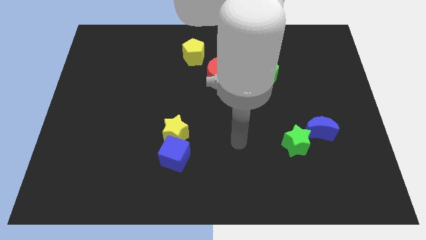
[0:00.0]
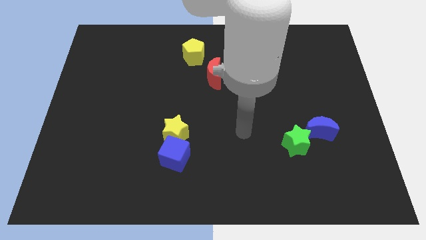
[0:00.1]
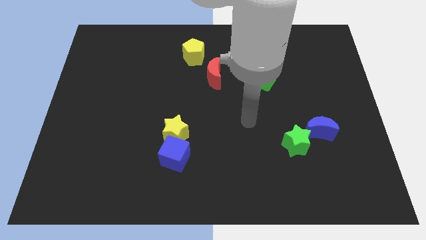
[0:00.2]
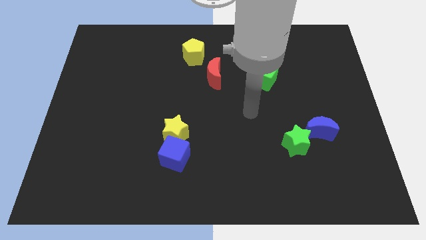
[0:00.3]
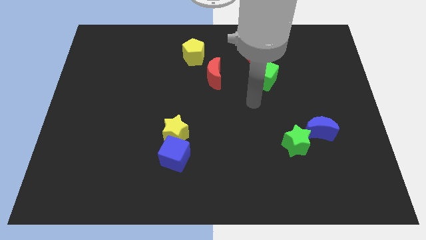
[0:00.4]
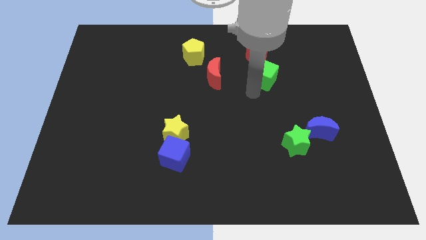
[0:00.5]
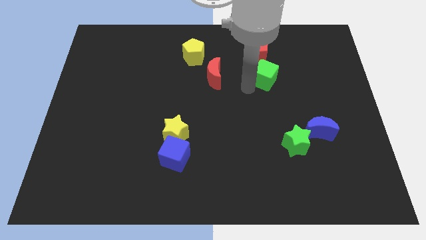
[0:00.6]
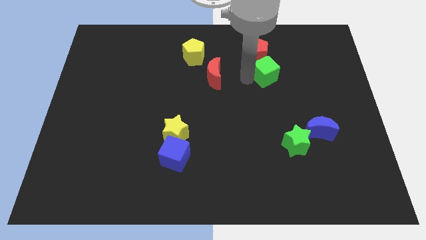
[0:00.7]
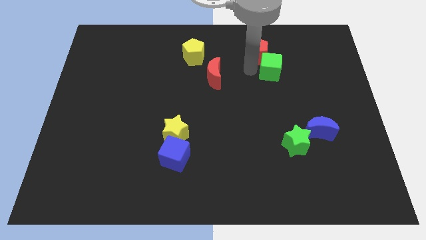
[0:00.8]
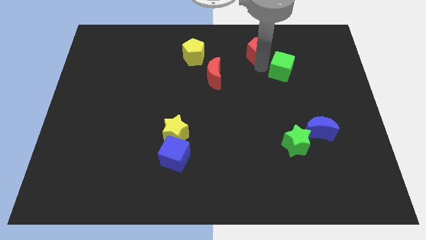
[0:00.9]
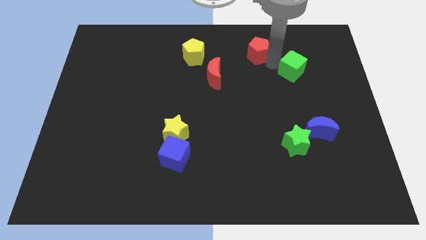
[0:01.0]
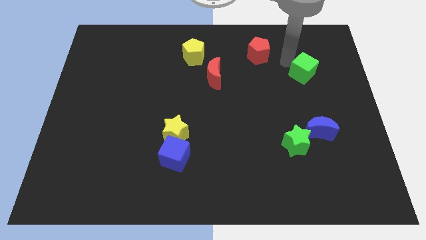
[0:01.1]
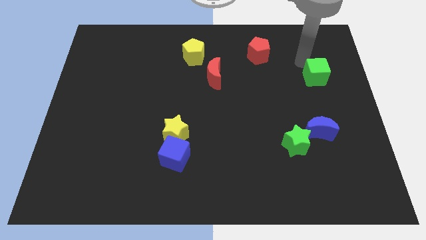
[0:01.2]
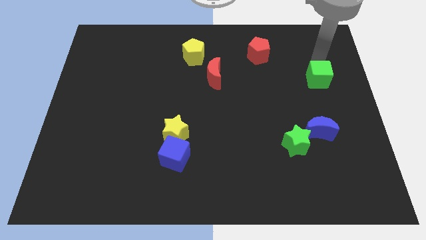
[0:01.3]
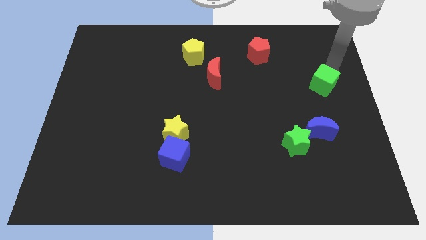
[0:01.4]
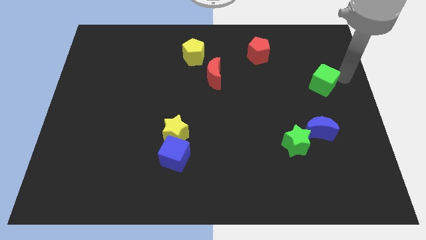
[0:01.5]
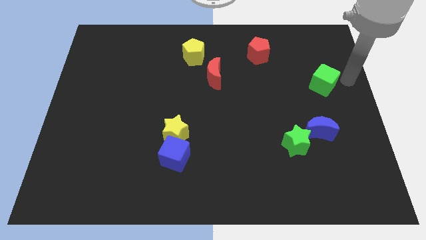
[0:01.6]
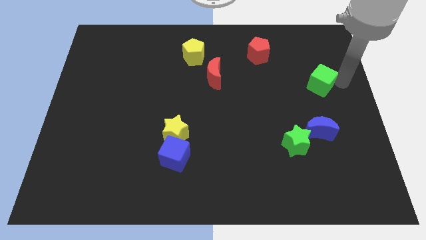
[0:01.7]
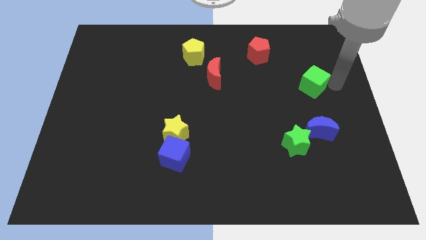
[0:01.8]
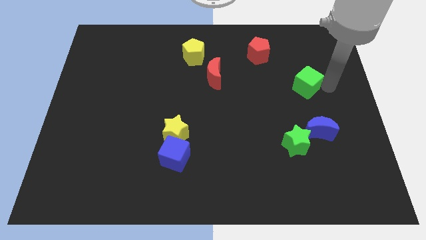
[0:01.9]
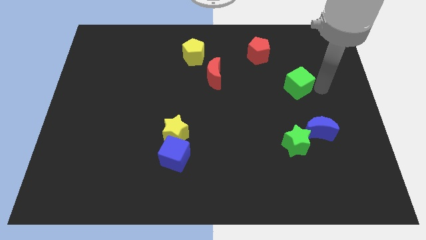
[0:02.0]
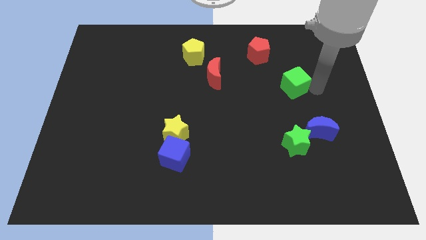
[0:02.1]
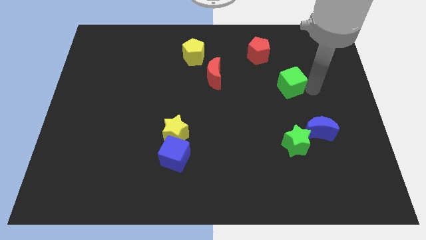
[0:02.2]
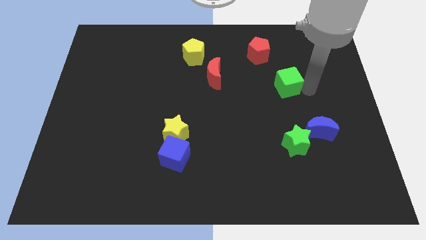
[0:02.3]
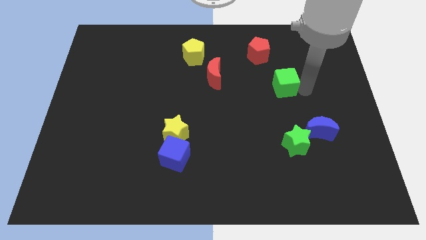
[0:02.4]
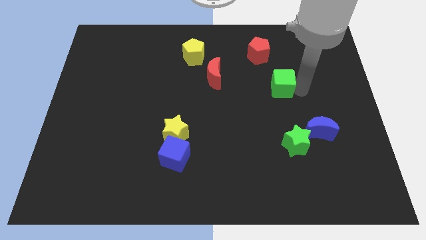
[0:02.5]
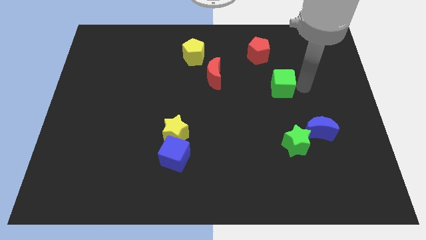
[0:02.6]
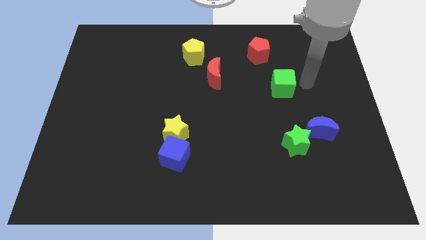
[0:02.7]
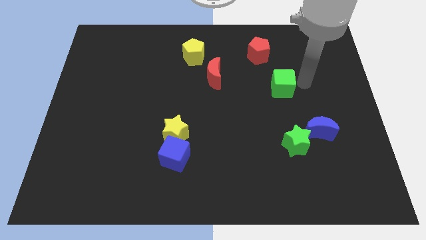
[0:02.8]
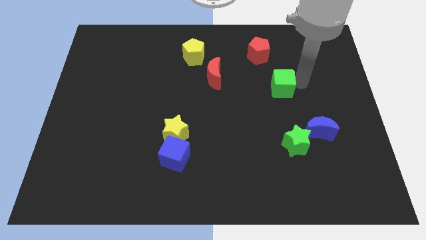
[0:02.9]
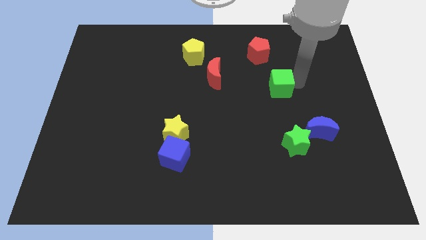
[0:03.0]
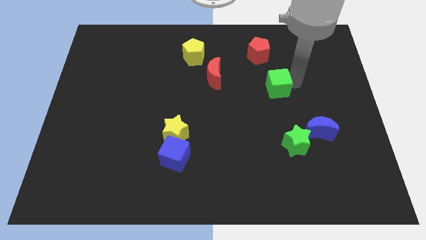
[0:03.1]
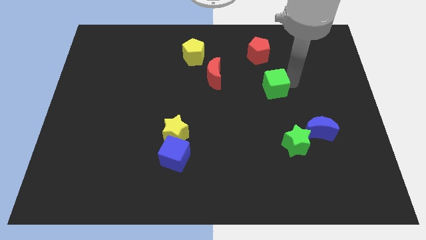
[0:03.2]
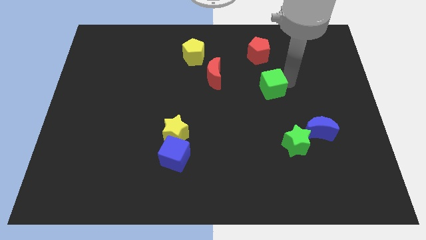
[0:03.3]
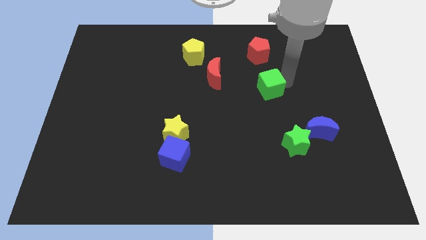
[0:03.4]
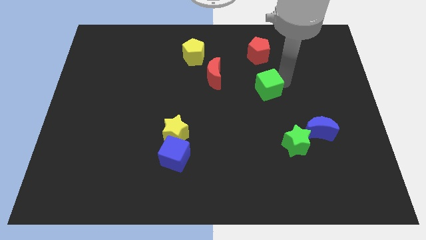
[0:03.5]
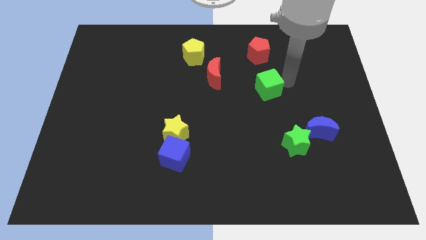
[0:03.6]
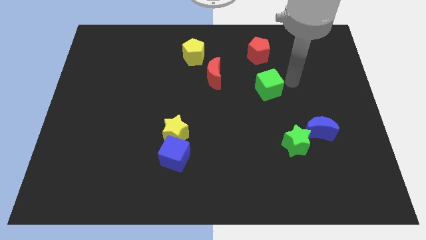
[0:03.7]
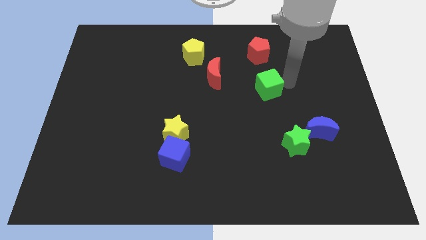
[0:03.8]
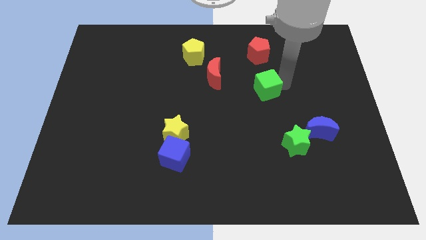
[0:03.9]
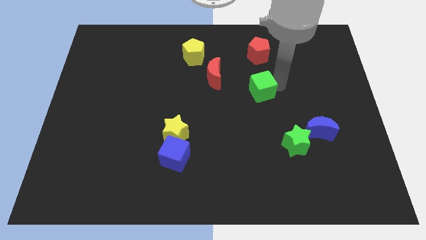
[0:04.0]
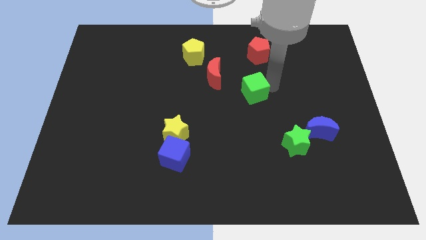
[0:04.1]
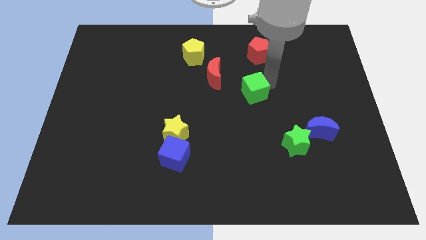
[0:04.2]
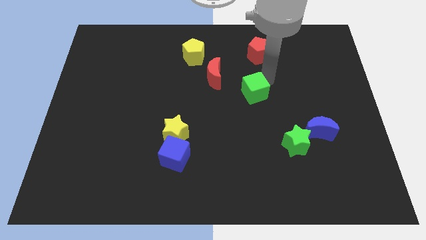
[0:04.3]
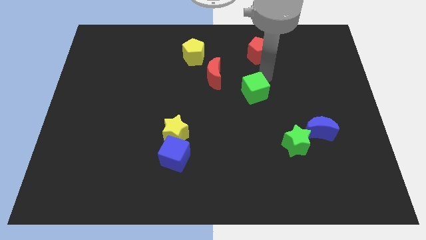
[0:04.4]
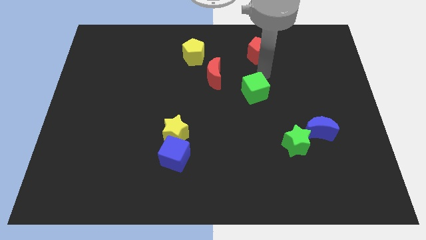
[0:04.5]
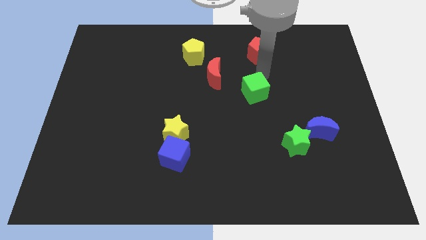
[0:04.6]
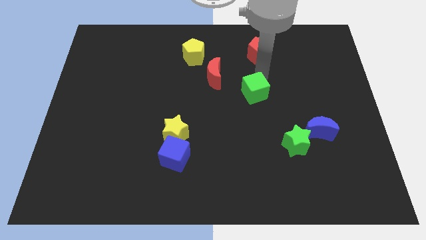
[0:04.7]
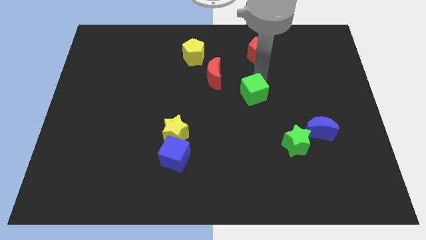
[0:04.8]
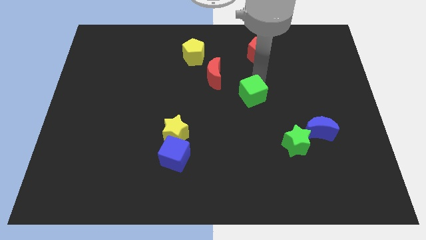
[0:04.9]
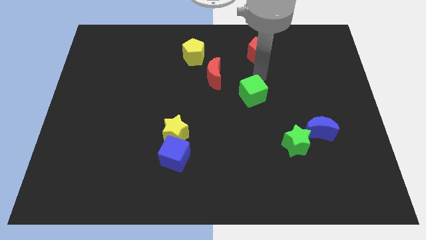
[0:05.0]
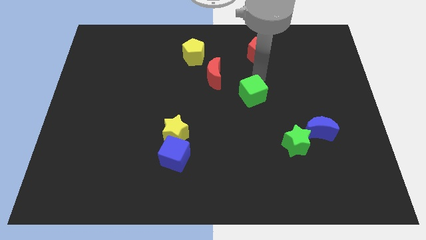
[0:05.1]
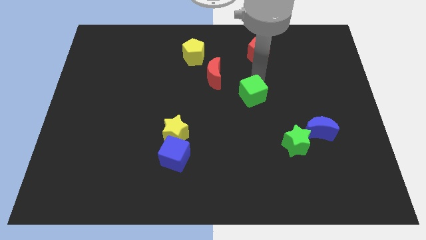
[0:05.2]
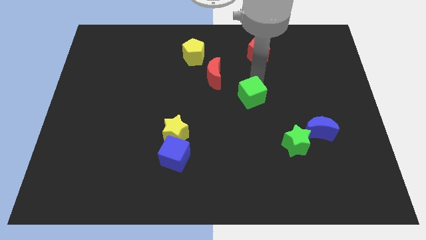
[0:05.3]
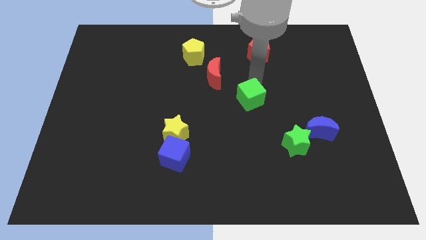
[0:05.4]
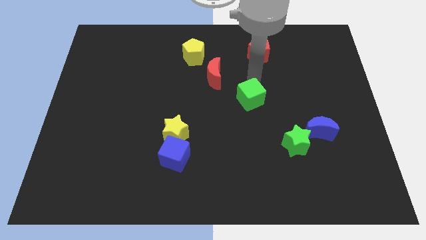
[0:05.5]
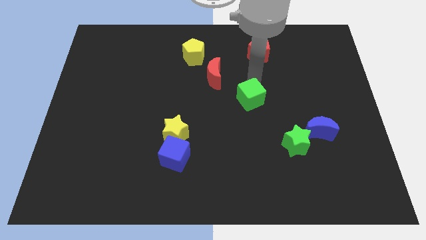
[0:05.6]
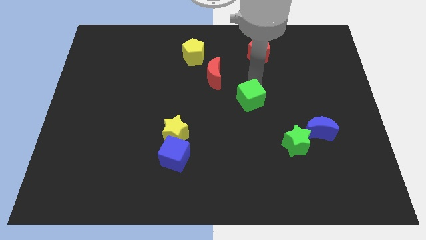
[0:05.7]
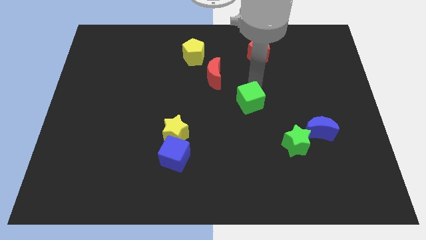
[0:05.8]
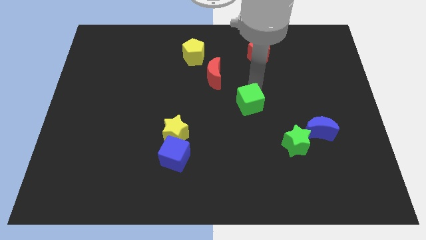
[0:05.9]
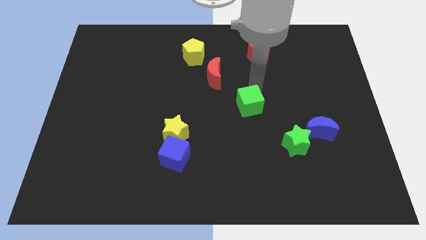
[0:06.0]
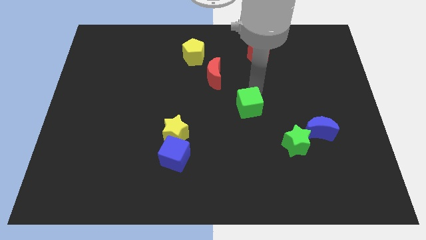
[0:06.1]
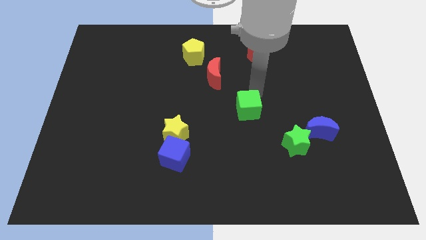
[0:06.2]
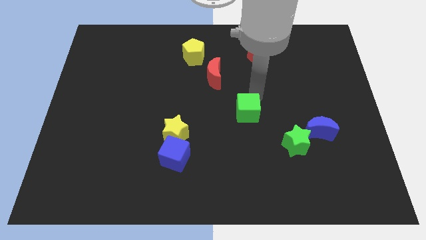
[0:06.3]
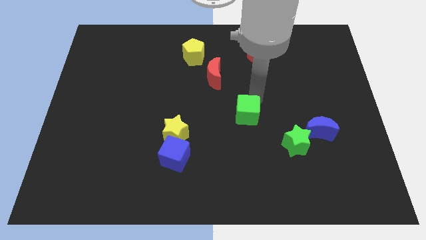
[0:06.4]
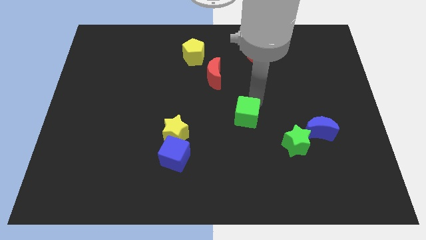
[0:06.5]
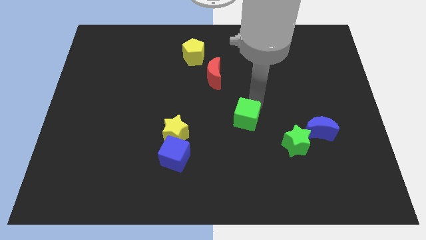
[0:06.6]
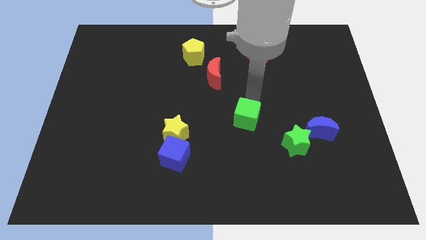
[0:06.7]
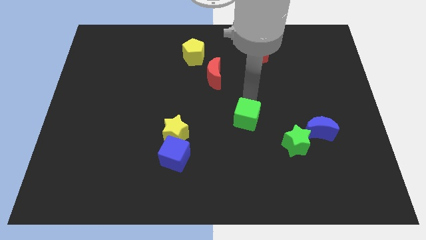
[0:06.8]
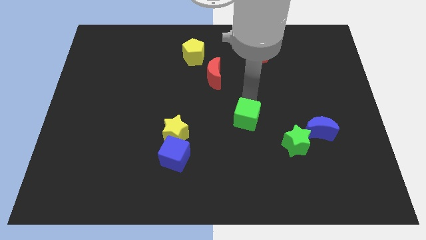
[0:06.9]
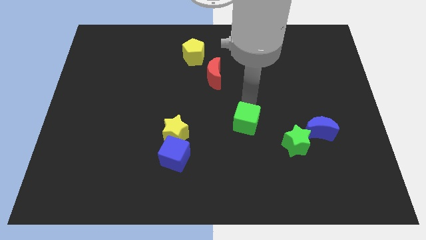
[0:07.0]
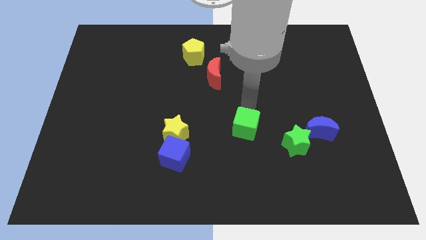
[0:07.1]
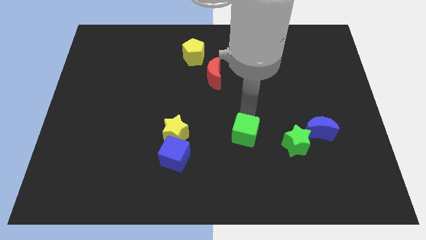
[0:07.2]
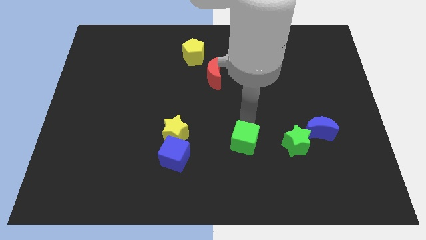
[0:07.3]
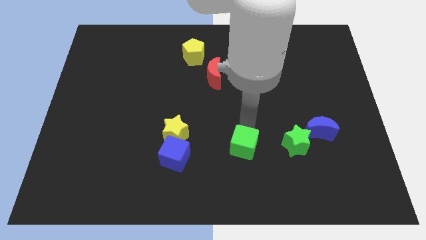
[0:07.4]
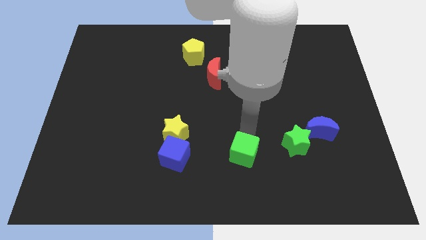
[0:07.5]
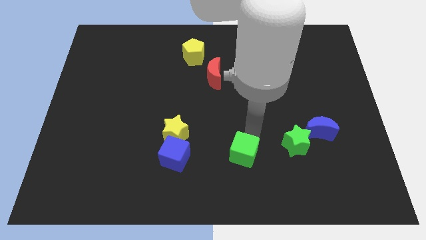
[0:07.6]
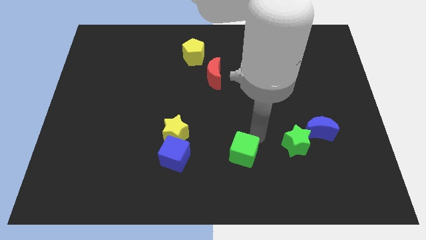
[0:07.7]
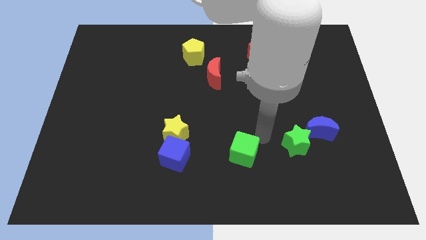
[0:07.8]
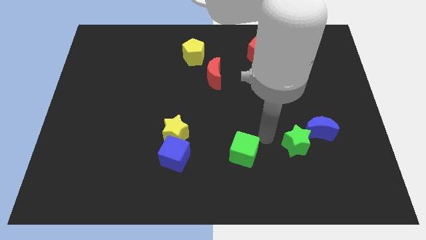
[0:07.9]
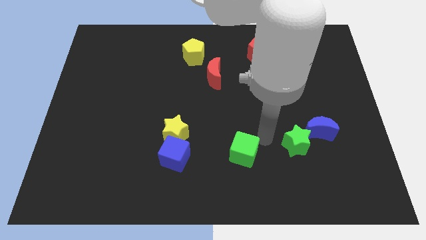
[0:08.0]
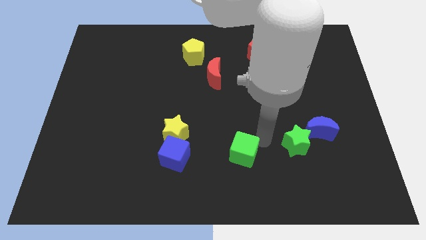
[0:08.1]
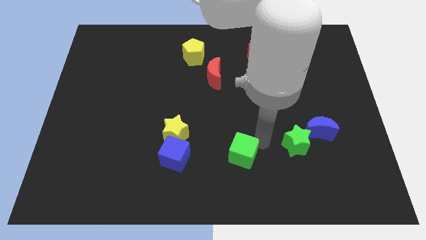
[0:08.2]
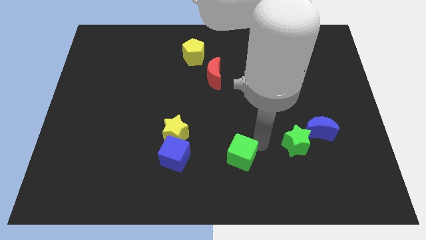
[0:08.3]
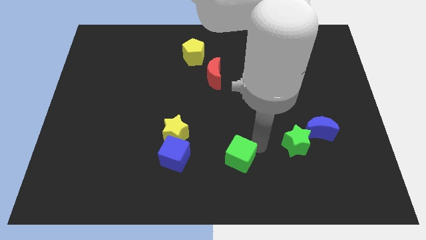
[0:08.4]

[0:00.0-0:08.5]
move the green cube to the bottom side
